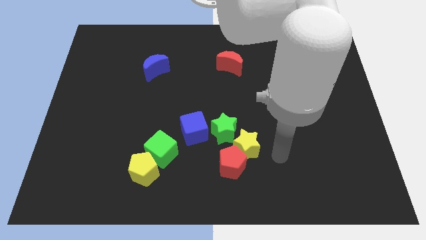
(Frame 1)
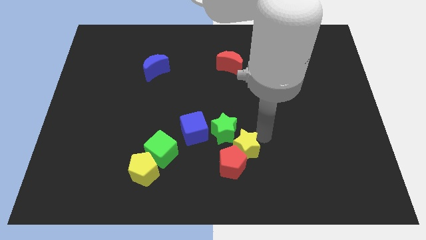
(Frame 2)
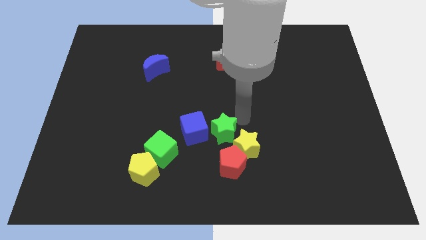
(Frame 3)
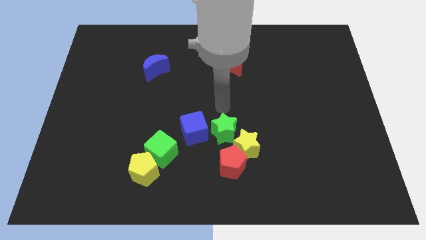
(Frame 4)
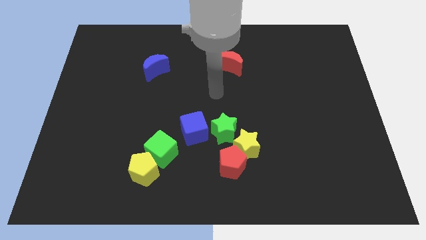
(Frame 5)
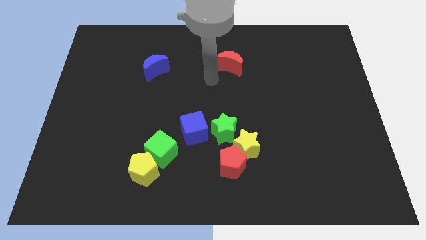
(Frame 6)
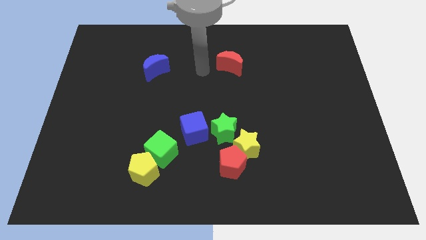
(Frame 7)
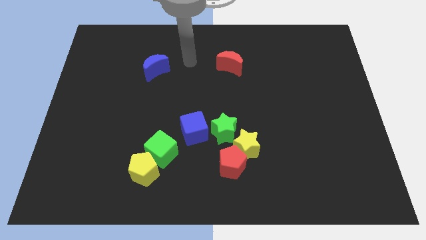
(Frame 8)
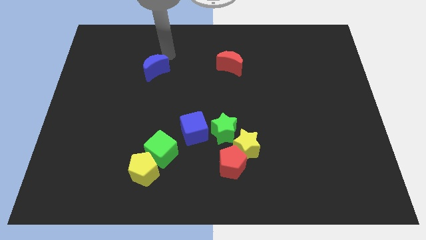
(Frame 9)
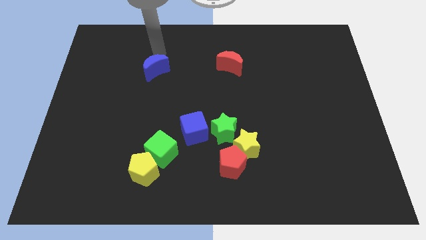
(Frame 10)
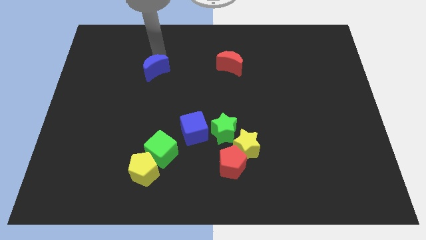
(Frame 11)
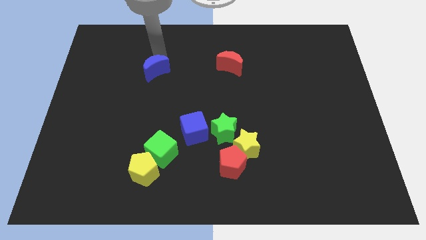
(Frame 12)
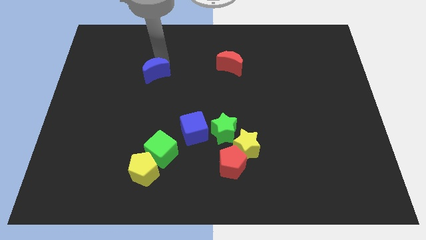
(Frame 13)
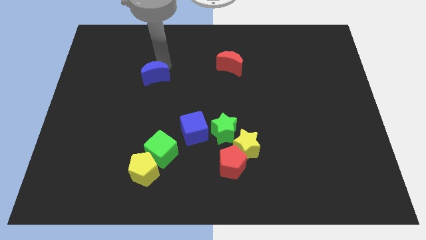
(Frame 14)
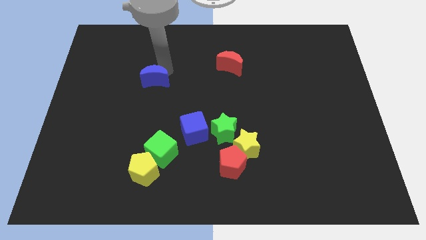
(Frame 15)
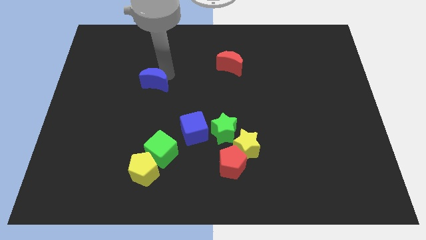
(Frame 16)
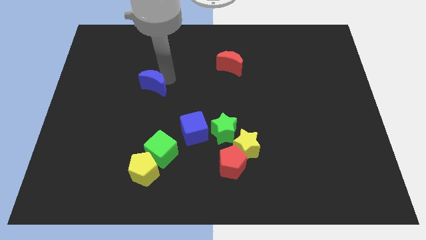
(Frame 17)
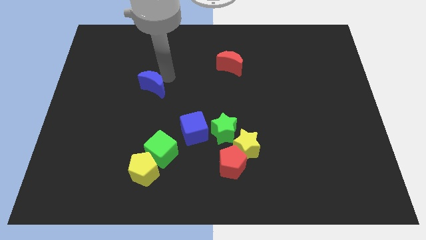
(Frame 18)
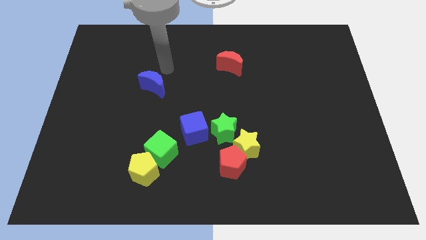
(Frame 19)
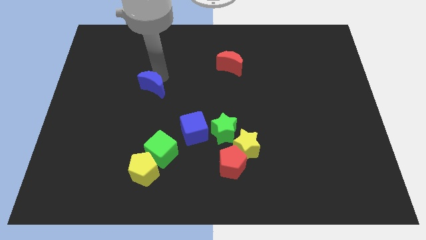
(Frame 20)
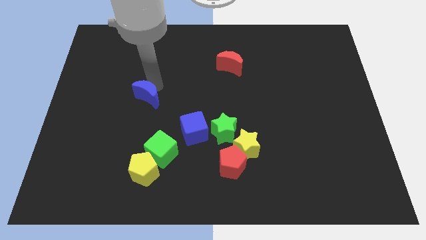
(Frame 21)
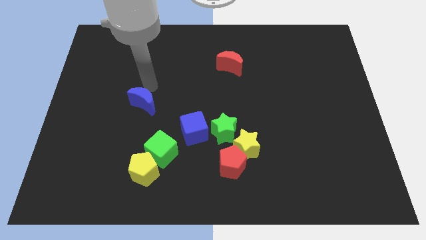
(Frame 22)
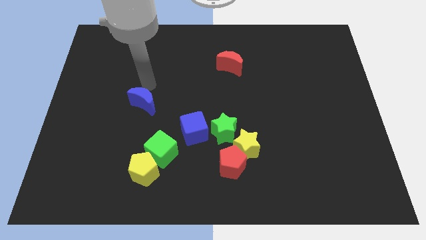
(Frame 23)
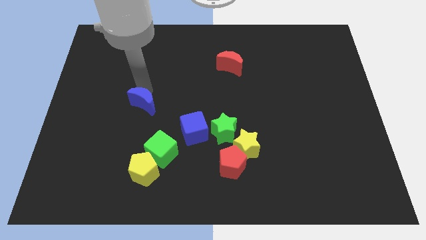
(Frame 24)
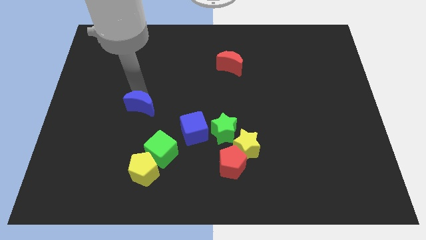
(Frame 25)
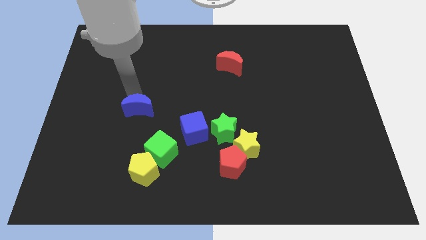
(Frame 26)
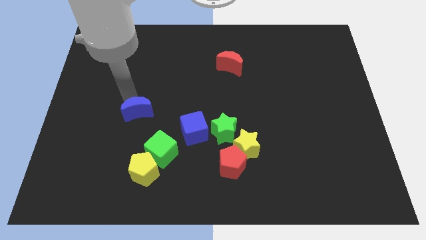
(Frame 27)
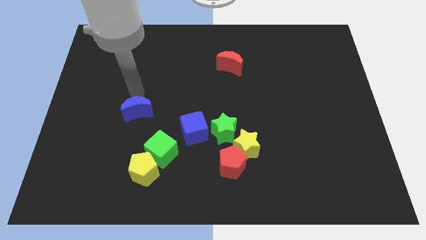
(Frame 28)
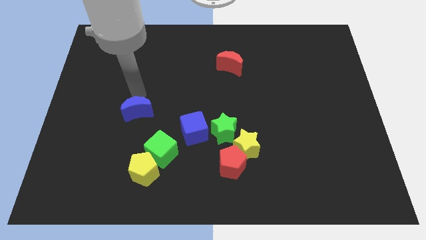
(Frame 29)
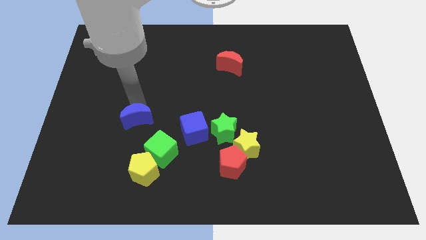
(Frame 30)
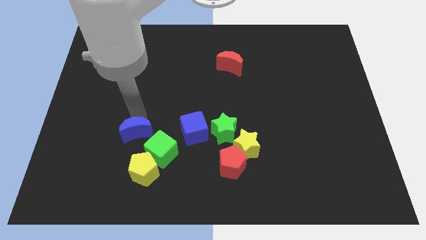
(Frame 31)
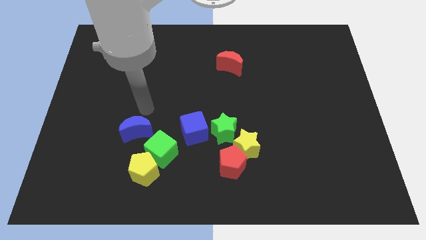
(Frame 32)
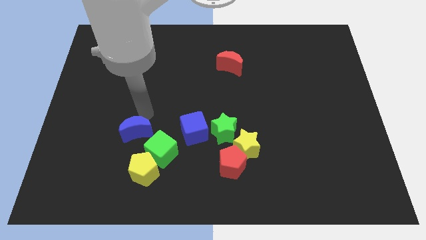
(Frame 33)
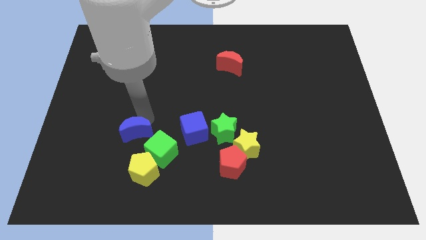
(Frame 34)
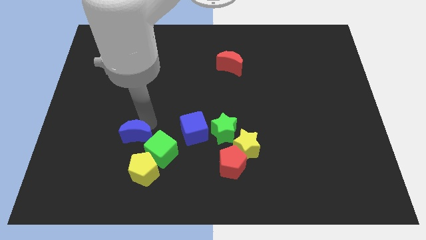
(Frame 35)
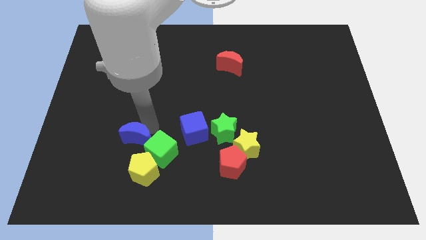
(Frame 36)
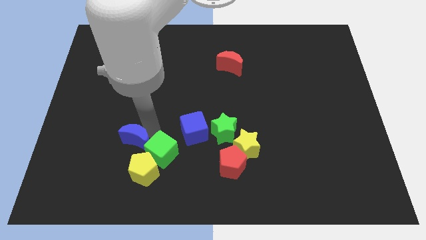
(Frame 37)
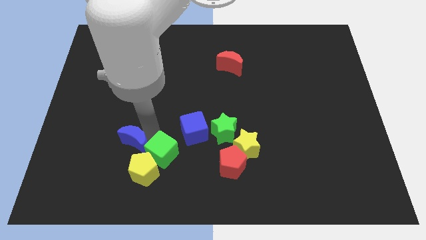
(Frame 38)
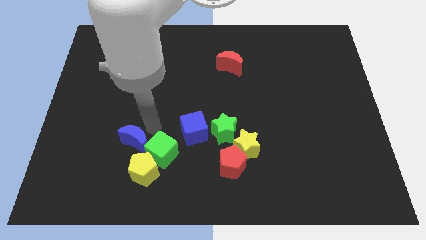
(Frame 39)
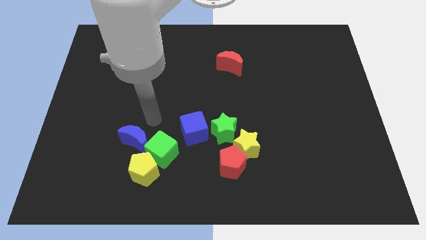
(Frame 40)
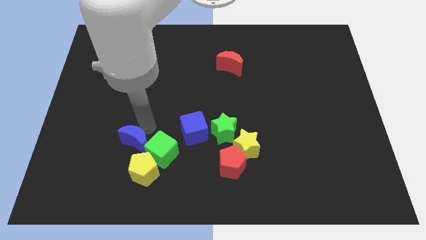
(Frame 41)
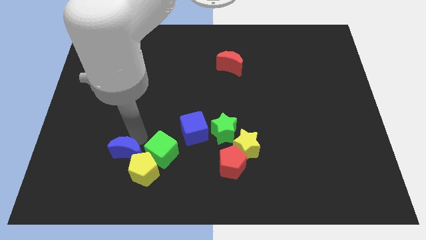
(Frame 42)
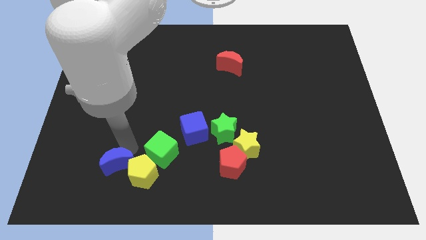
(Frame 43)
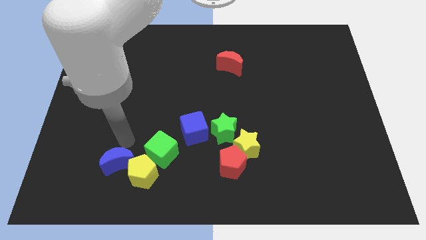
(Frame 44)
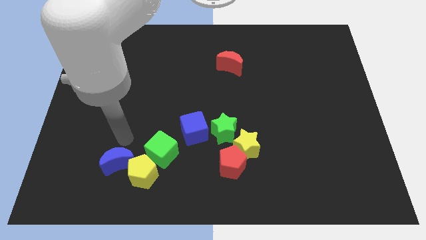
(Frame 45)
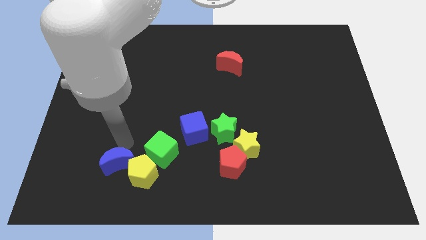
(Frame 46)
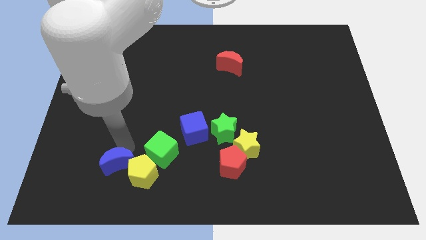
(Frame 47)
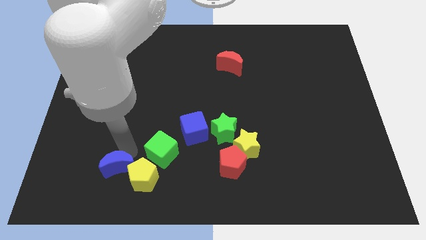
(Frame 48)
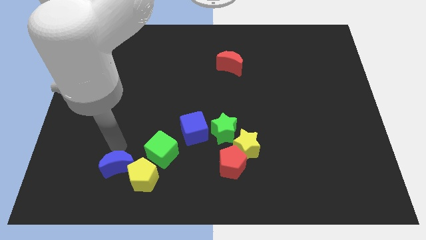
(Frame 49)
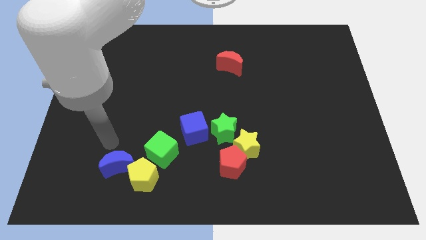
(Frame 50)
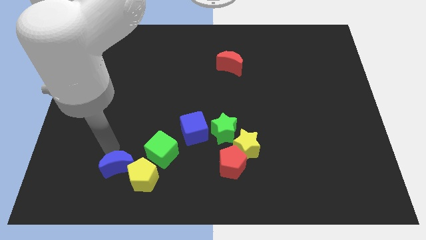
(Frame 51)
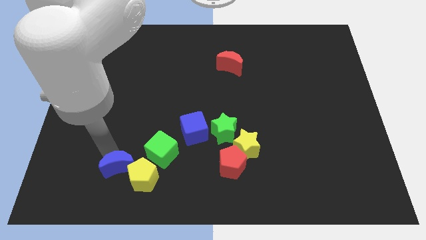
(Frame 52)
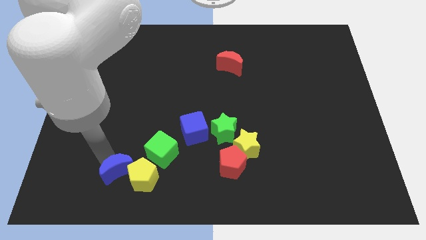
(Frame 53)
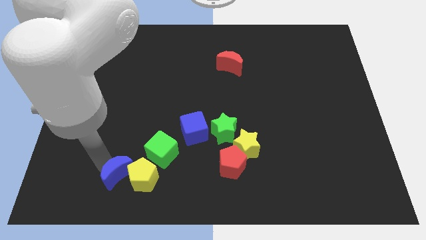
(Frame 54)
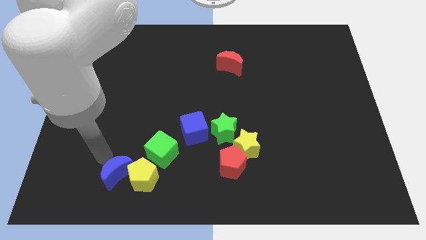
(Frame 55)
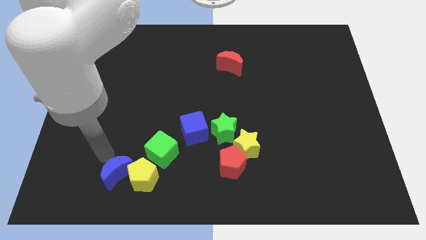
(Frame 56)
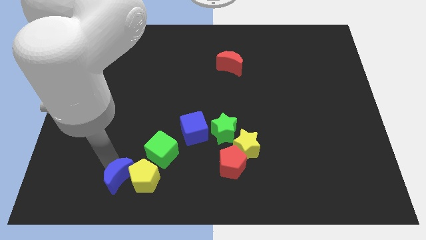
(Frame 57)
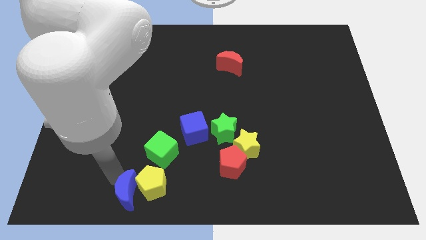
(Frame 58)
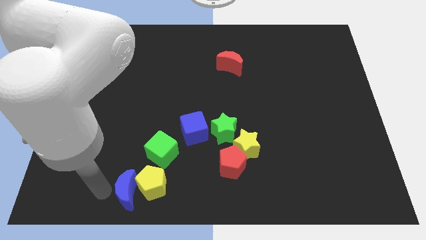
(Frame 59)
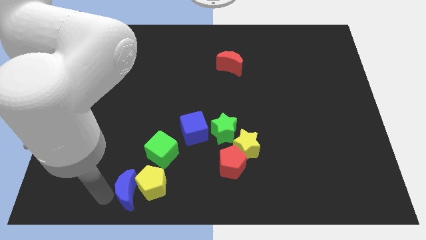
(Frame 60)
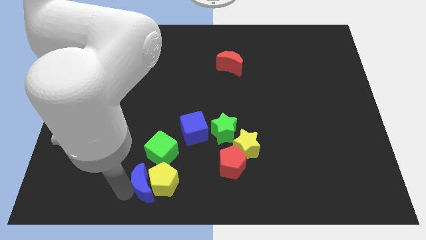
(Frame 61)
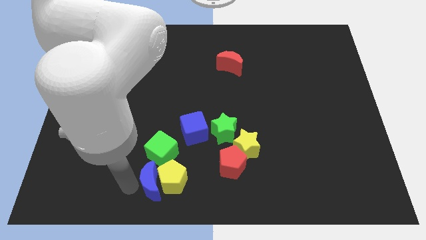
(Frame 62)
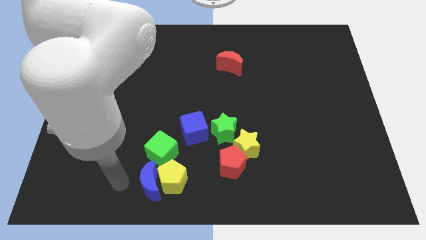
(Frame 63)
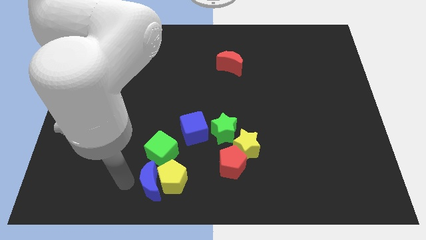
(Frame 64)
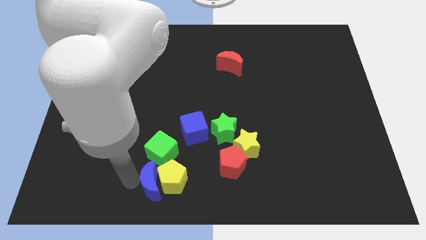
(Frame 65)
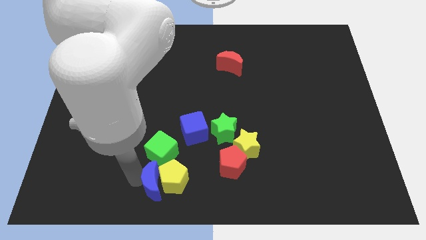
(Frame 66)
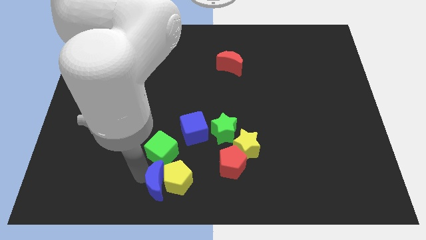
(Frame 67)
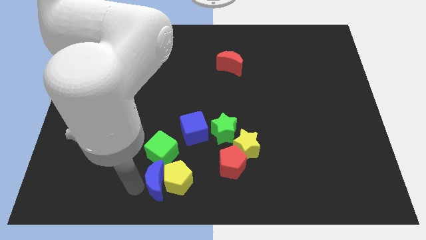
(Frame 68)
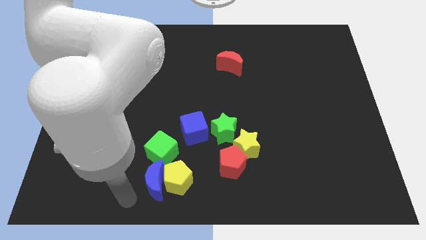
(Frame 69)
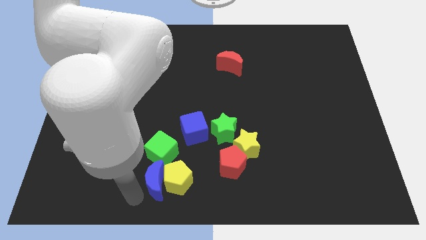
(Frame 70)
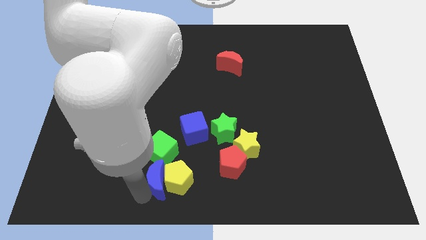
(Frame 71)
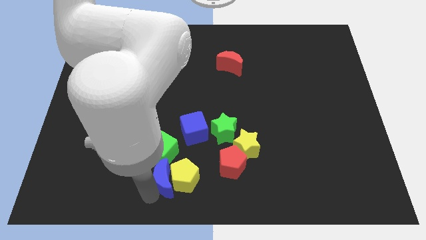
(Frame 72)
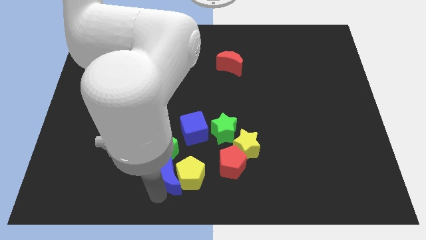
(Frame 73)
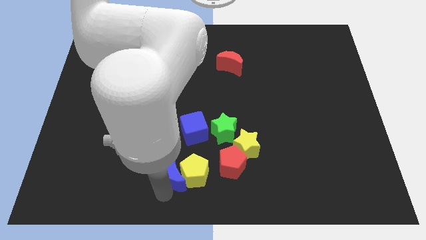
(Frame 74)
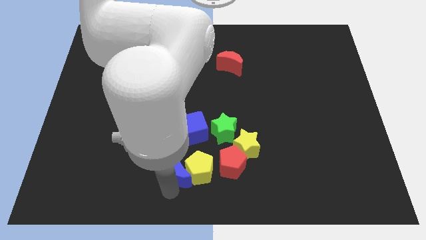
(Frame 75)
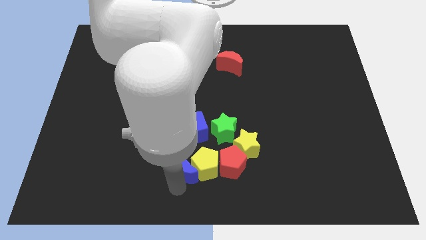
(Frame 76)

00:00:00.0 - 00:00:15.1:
put the blue moon to the bottom left side of the green star
